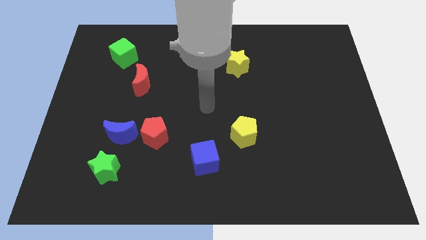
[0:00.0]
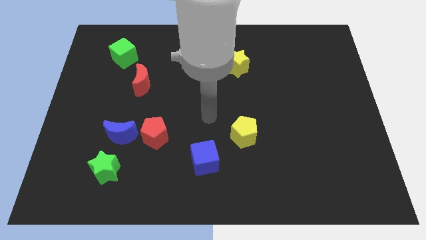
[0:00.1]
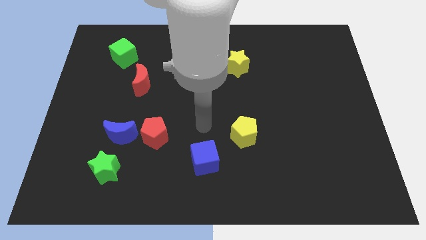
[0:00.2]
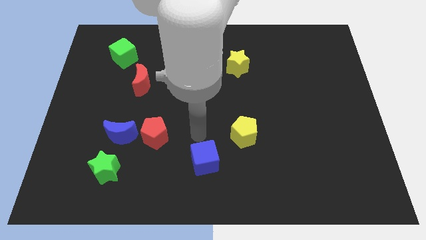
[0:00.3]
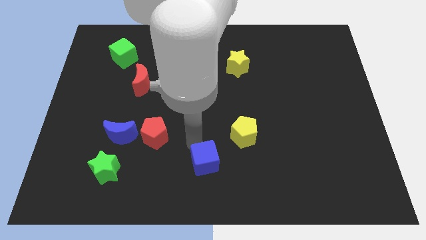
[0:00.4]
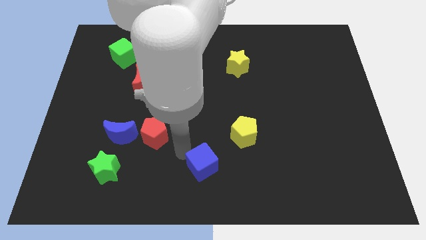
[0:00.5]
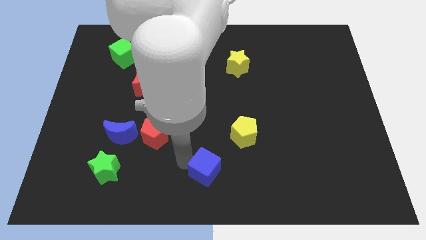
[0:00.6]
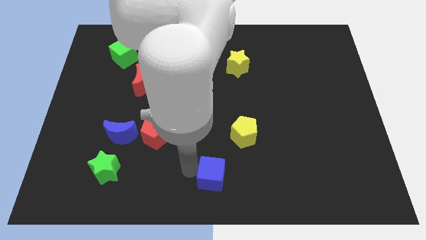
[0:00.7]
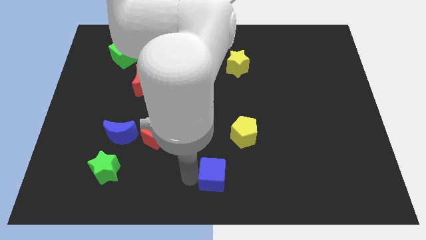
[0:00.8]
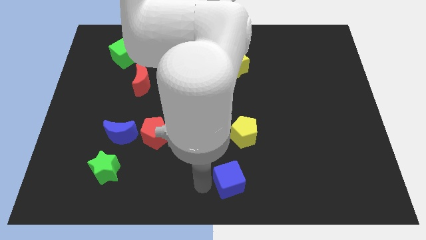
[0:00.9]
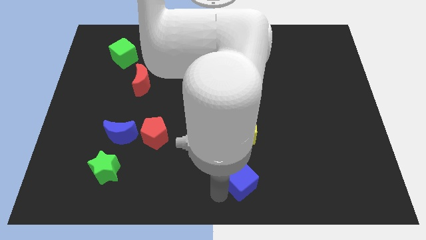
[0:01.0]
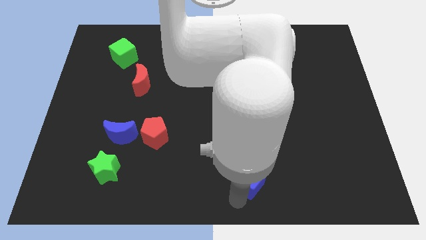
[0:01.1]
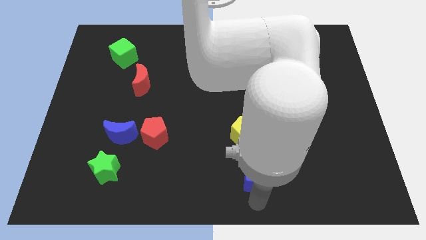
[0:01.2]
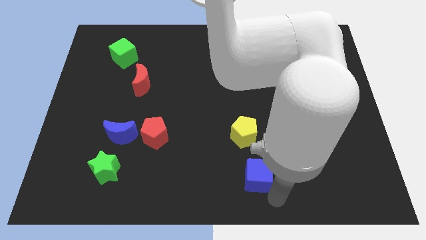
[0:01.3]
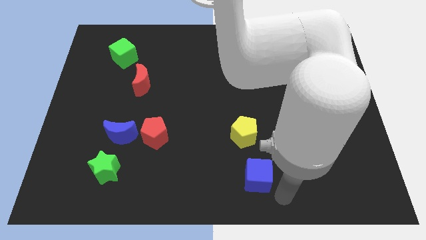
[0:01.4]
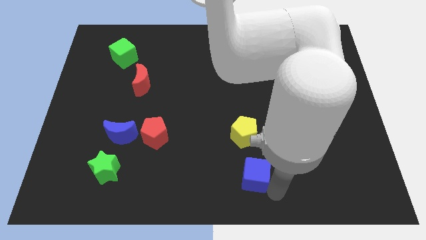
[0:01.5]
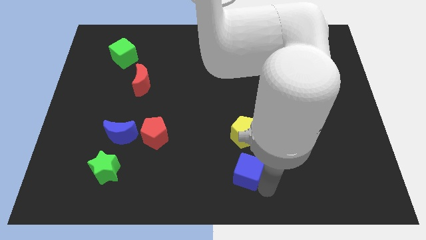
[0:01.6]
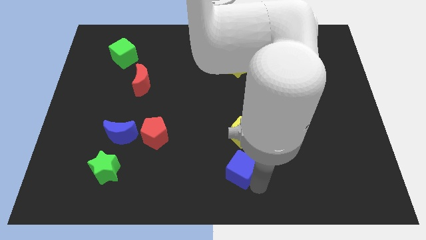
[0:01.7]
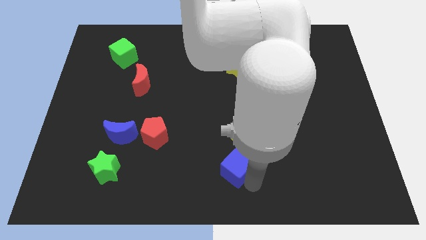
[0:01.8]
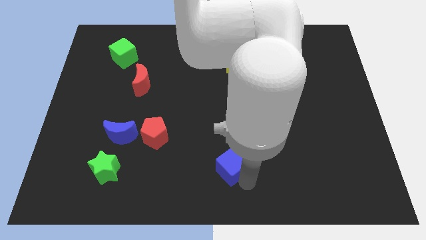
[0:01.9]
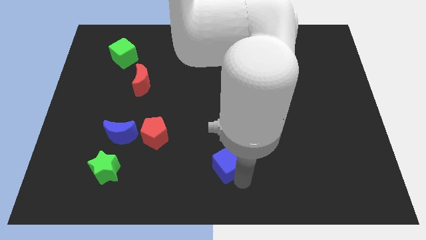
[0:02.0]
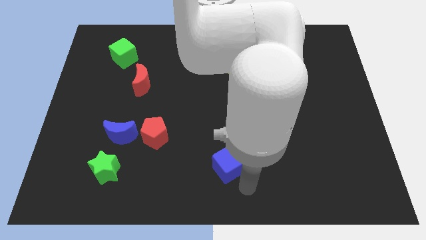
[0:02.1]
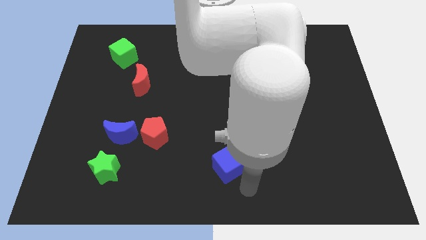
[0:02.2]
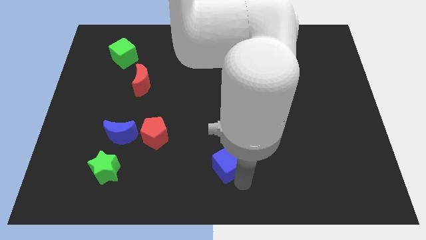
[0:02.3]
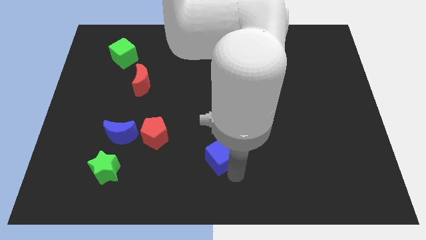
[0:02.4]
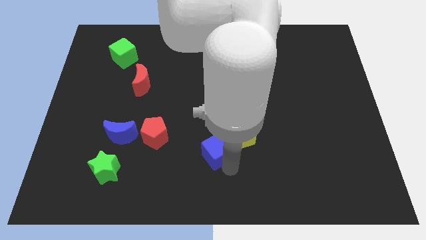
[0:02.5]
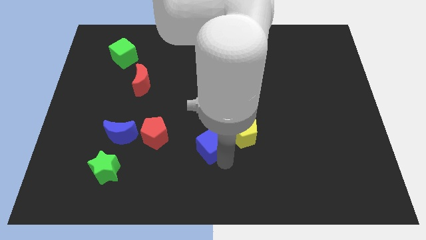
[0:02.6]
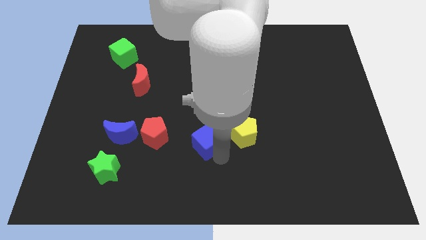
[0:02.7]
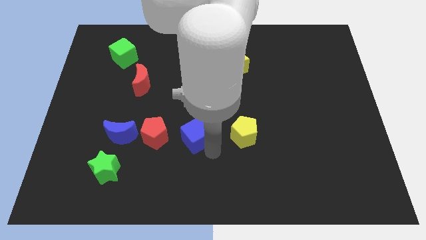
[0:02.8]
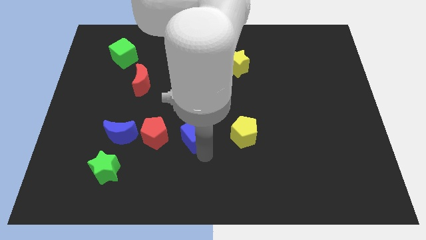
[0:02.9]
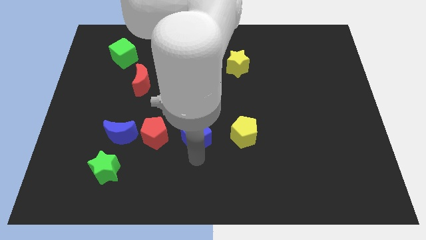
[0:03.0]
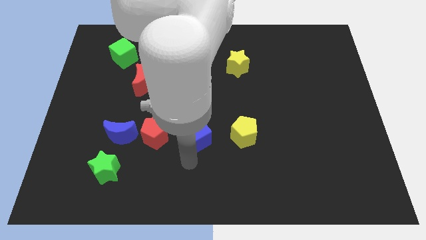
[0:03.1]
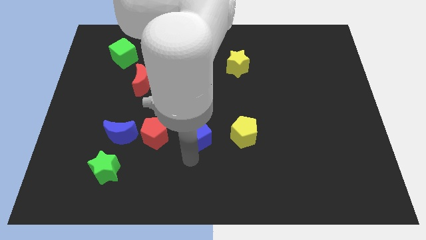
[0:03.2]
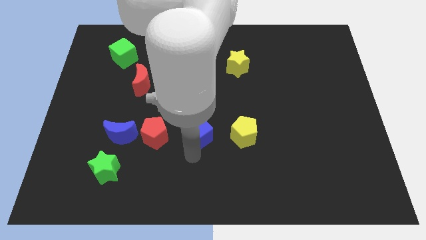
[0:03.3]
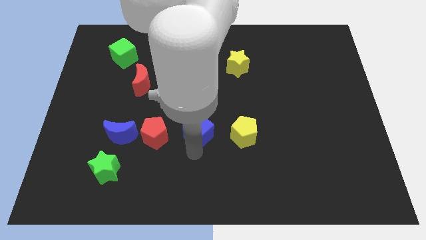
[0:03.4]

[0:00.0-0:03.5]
move the blue cube upwards somewhat

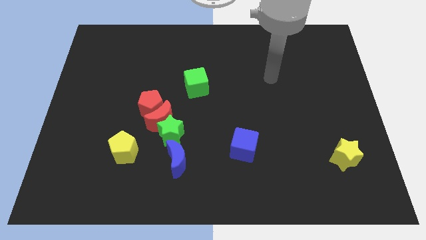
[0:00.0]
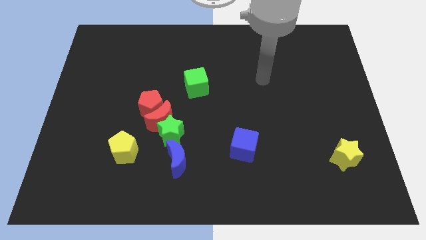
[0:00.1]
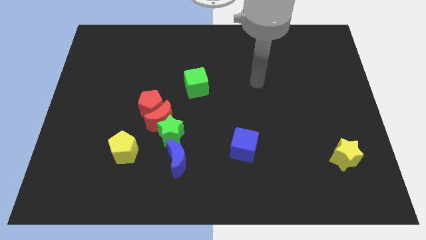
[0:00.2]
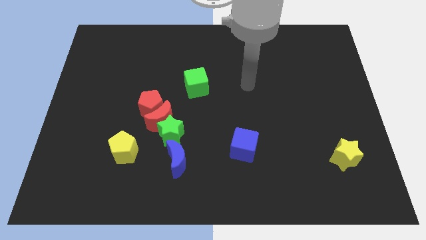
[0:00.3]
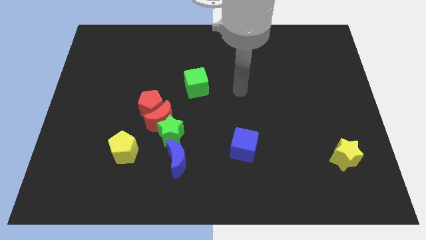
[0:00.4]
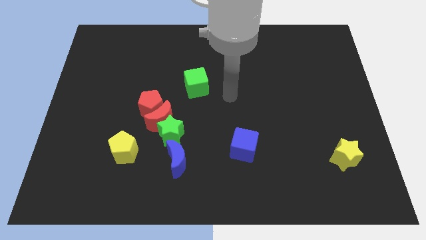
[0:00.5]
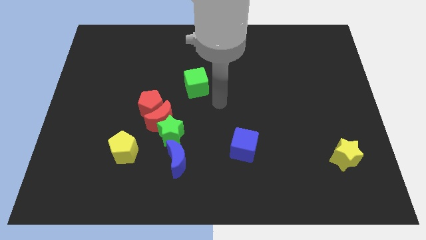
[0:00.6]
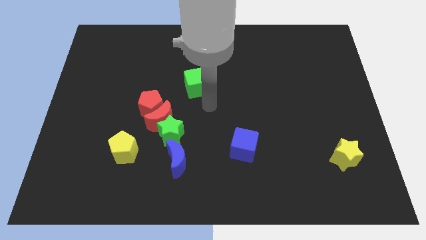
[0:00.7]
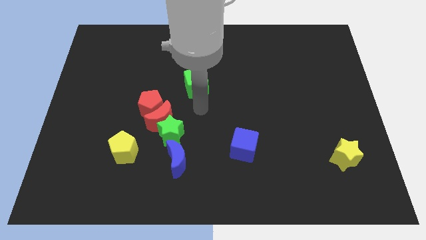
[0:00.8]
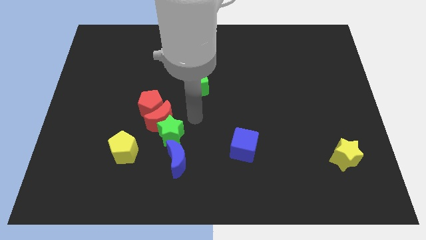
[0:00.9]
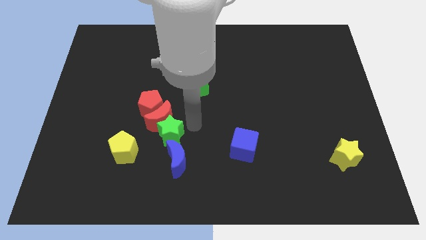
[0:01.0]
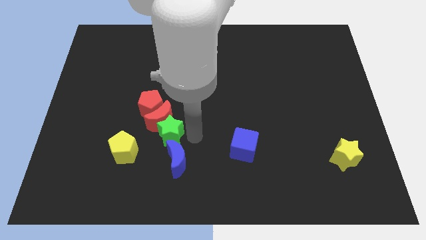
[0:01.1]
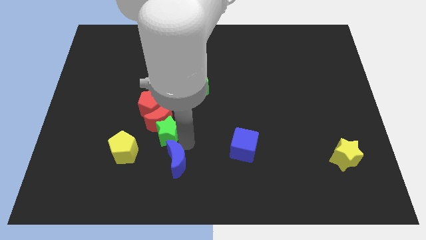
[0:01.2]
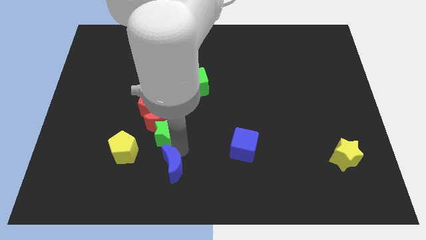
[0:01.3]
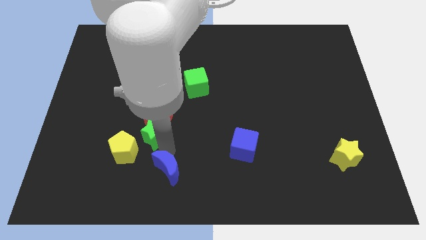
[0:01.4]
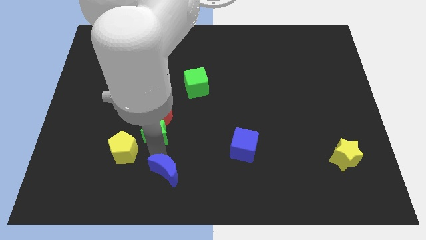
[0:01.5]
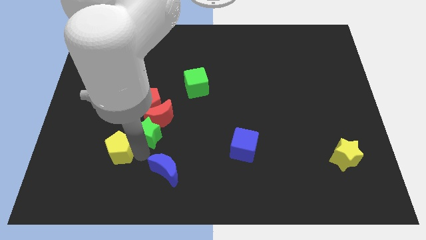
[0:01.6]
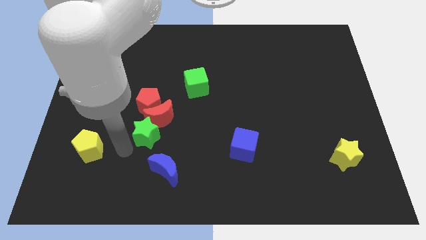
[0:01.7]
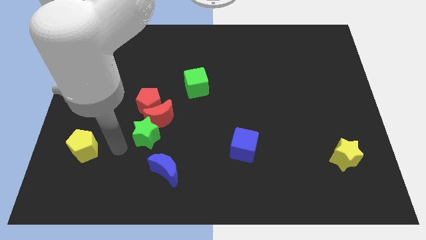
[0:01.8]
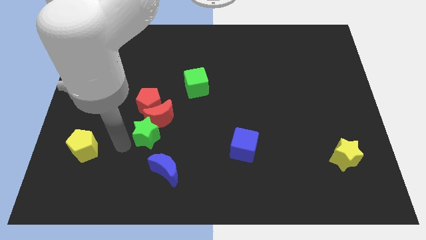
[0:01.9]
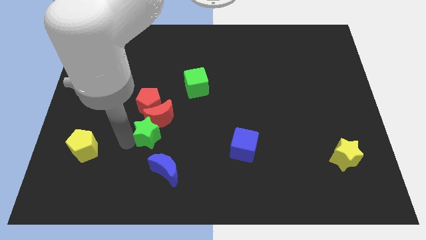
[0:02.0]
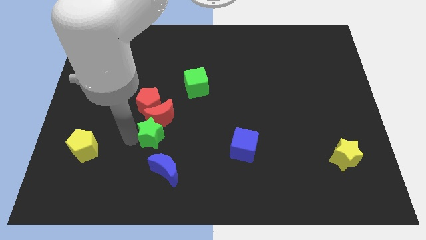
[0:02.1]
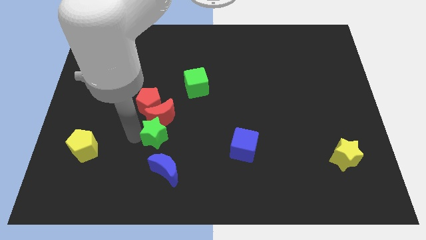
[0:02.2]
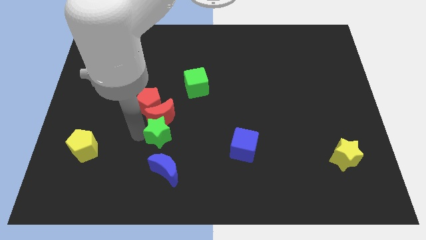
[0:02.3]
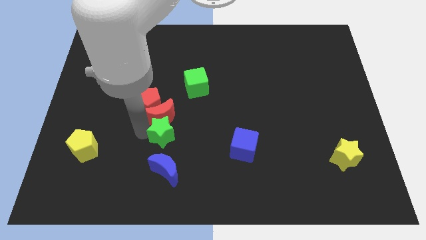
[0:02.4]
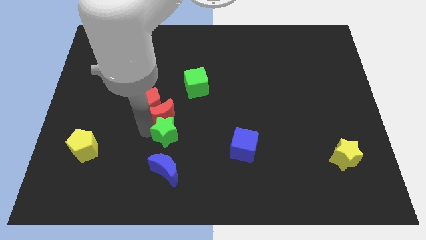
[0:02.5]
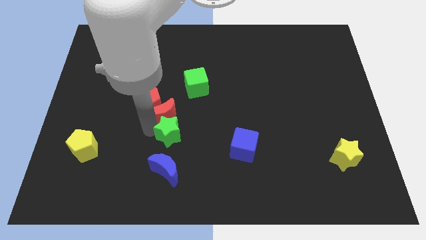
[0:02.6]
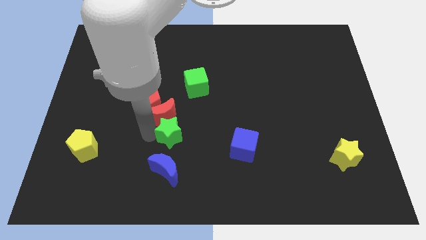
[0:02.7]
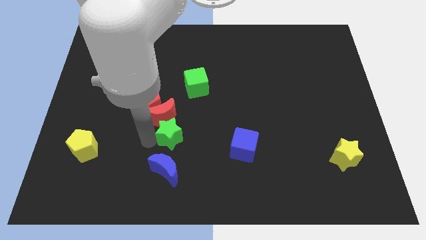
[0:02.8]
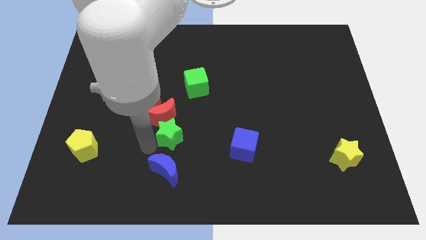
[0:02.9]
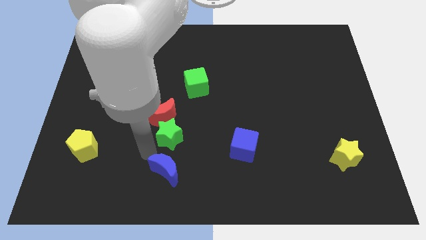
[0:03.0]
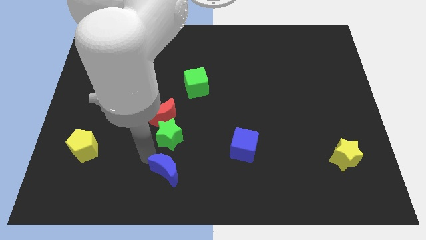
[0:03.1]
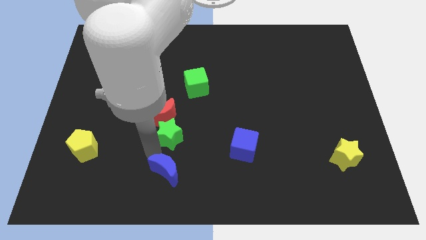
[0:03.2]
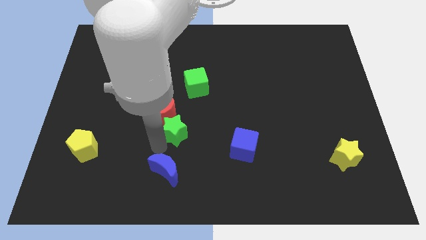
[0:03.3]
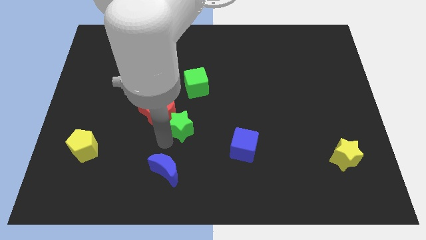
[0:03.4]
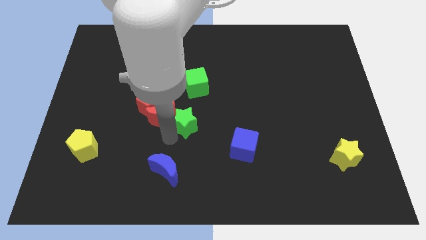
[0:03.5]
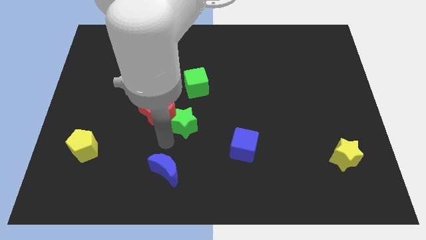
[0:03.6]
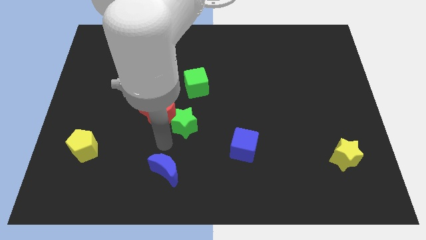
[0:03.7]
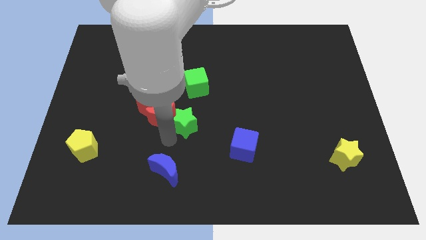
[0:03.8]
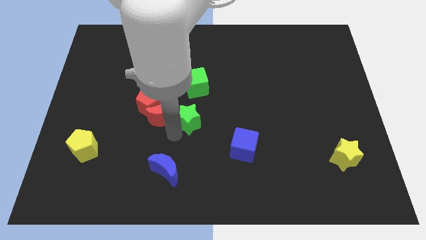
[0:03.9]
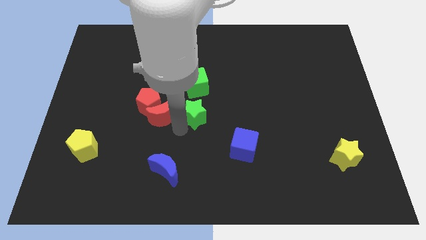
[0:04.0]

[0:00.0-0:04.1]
slightly move the green star diagonally up and to the right

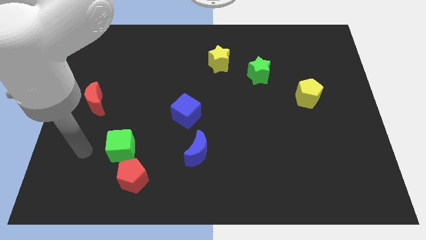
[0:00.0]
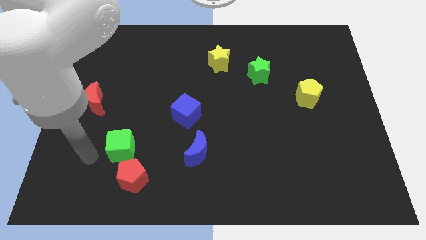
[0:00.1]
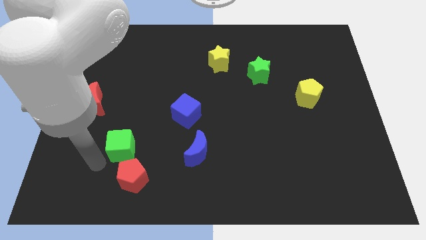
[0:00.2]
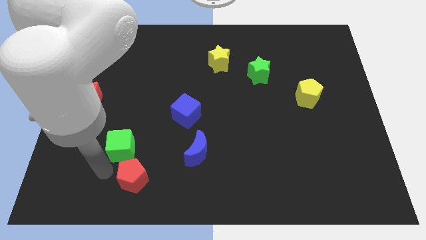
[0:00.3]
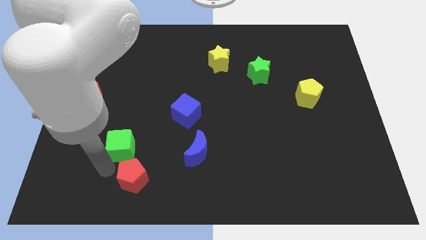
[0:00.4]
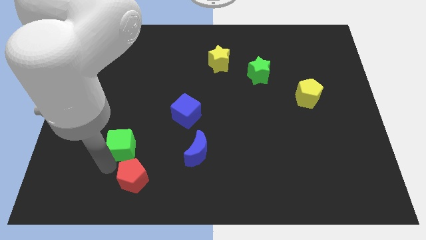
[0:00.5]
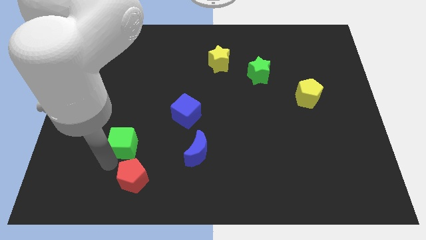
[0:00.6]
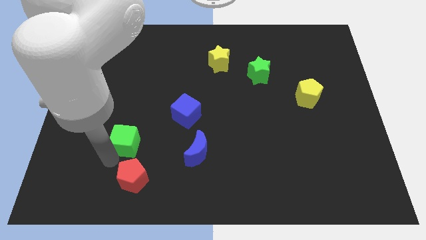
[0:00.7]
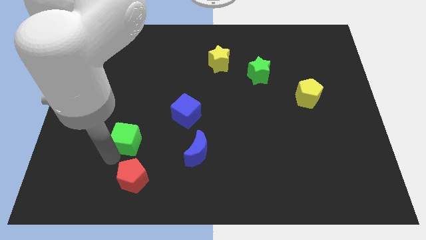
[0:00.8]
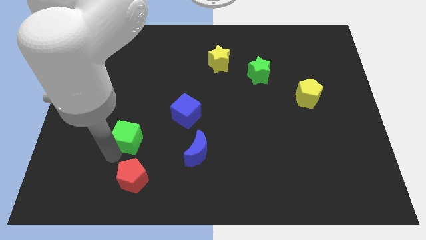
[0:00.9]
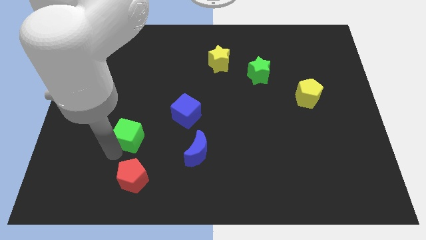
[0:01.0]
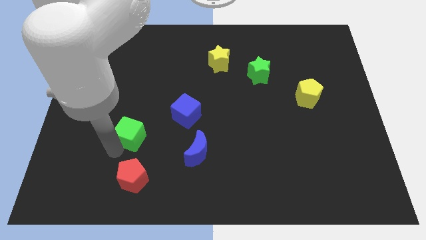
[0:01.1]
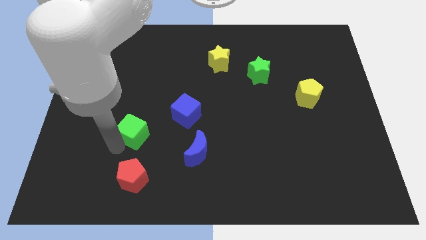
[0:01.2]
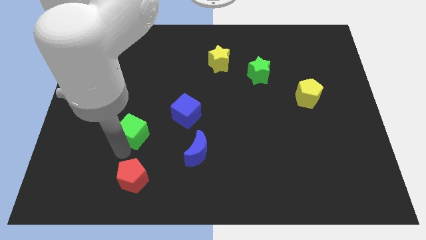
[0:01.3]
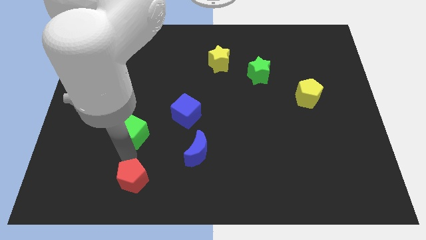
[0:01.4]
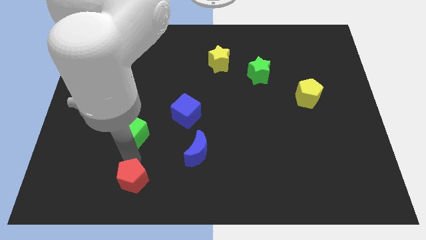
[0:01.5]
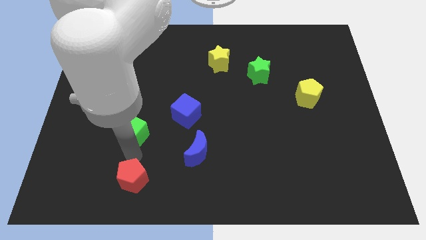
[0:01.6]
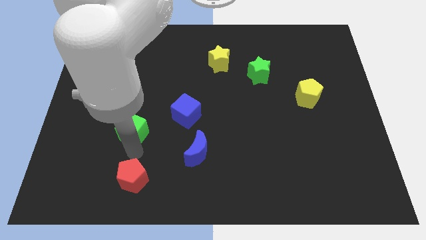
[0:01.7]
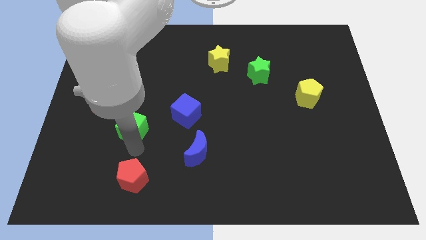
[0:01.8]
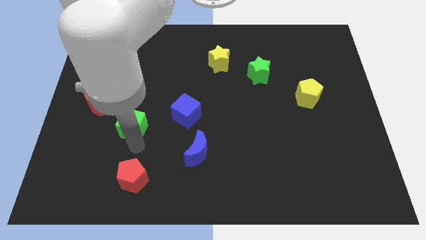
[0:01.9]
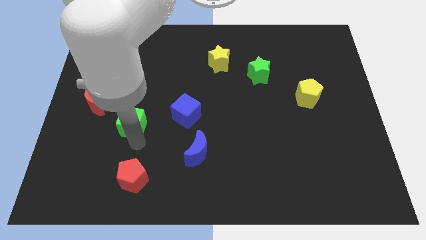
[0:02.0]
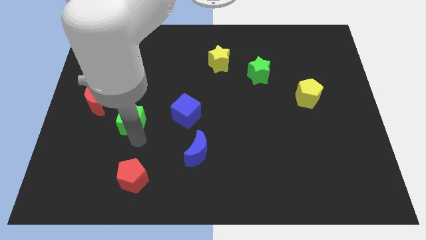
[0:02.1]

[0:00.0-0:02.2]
move the green cube up a little
